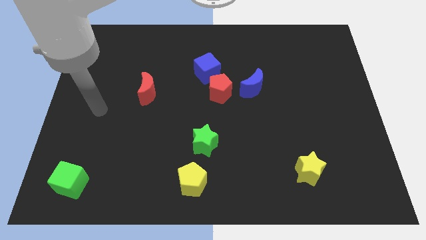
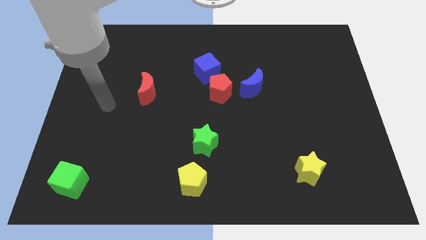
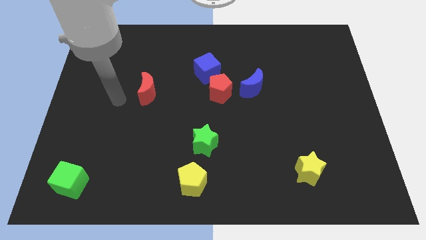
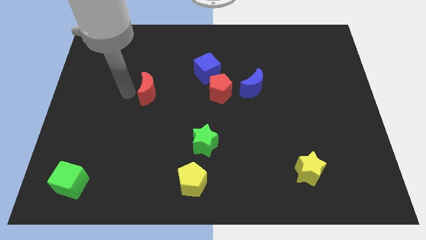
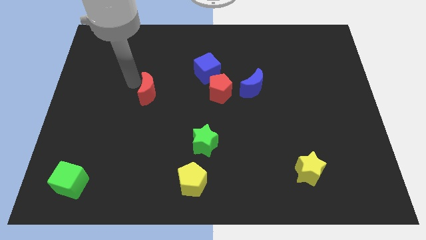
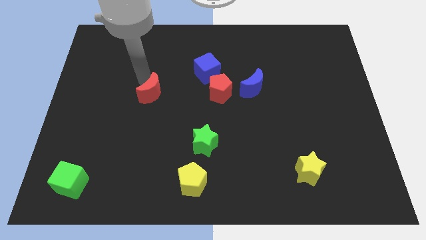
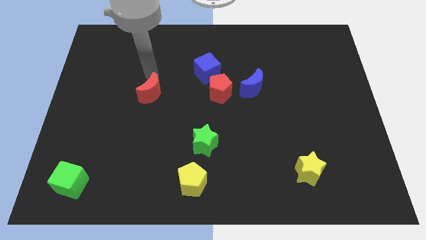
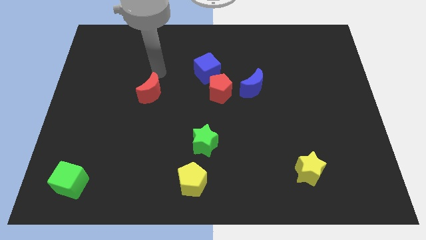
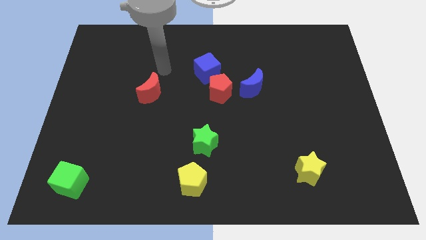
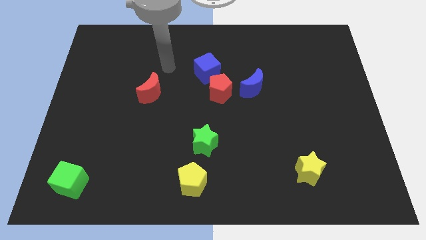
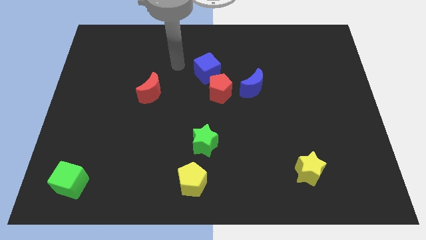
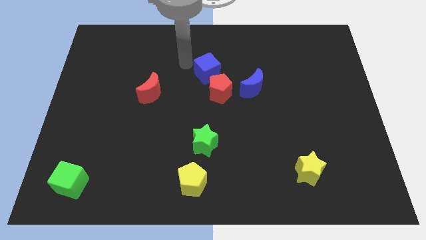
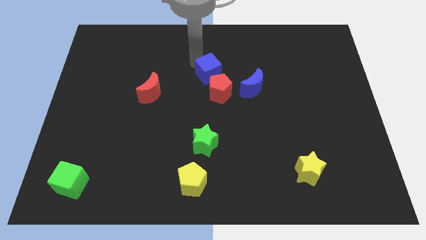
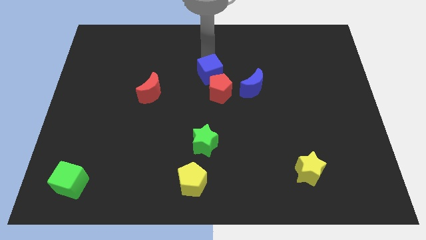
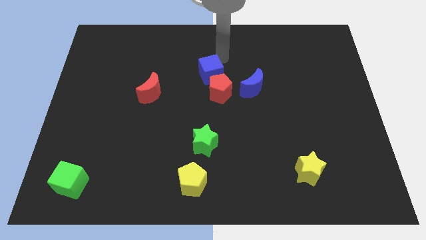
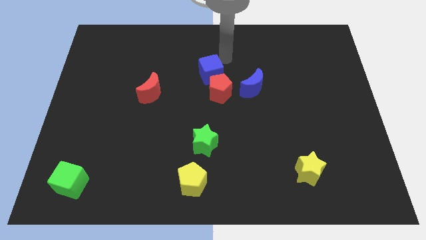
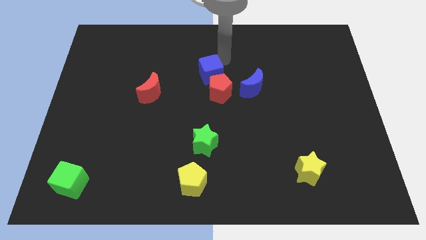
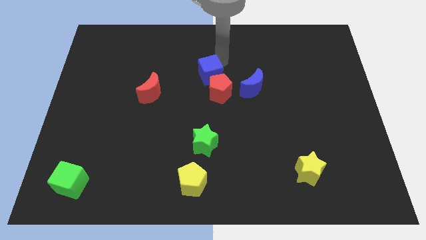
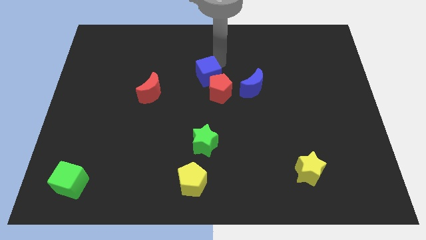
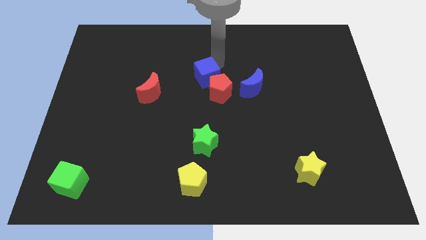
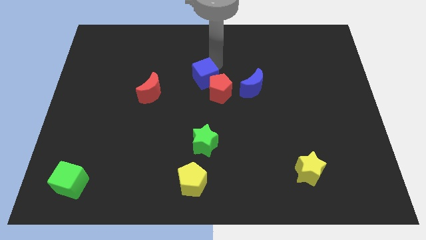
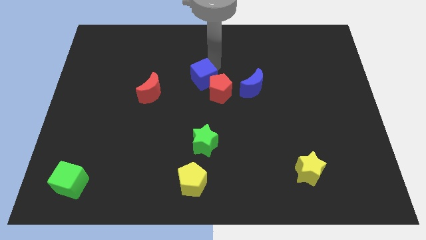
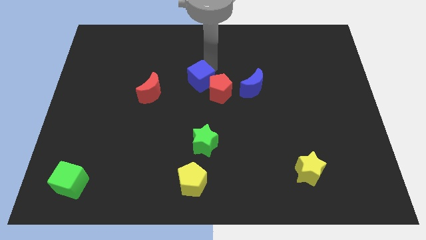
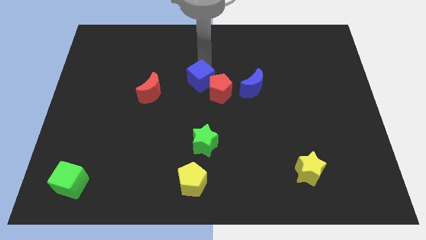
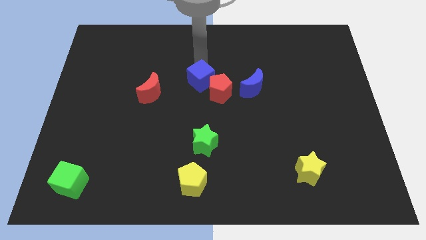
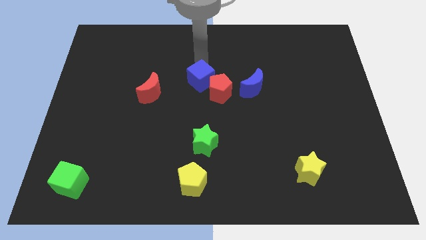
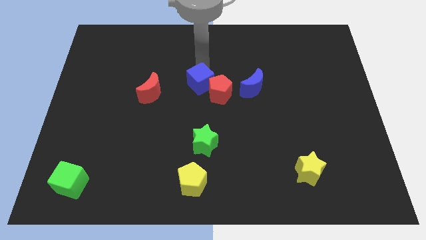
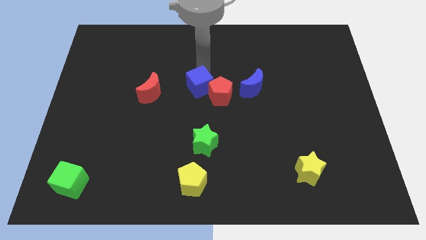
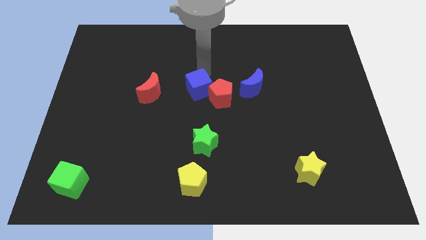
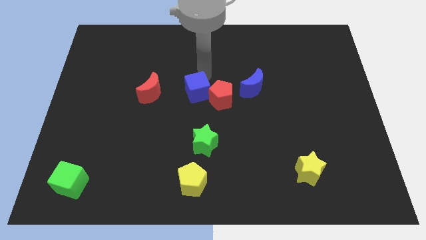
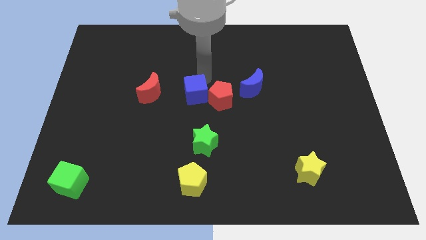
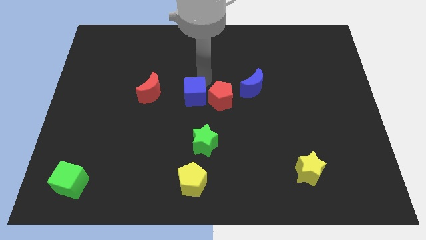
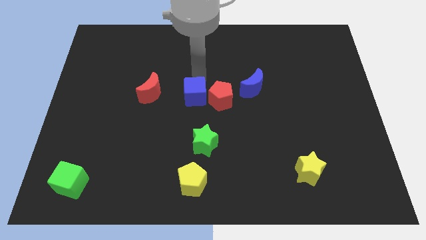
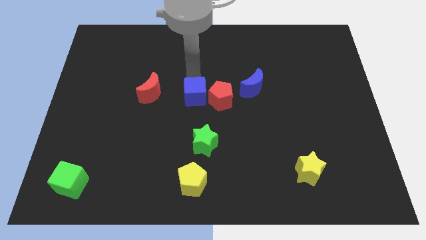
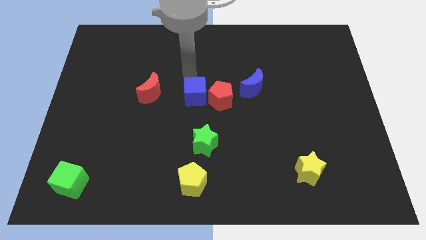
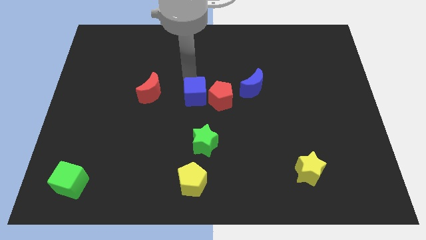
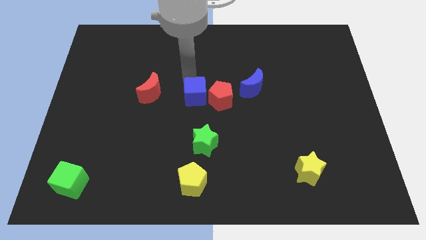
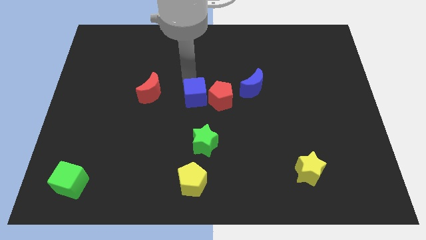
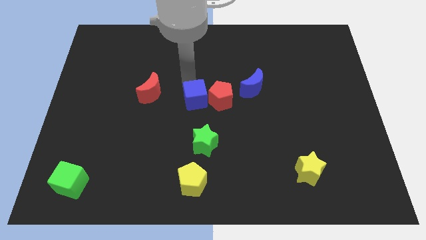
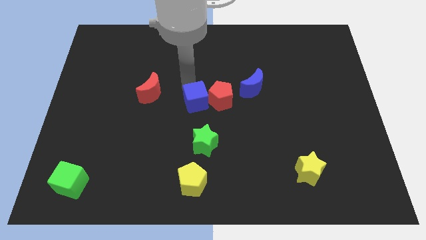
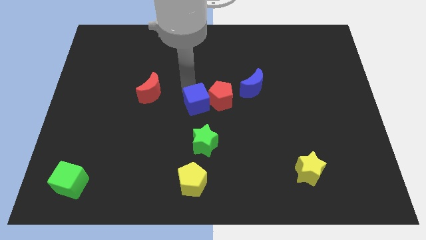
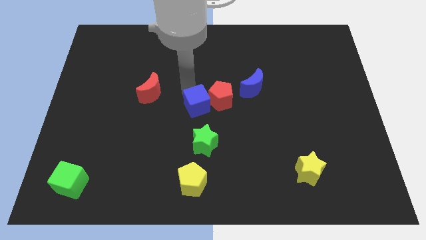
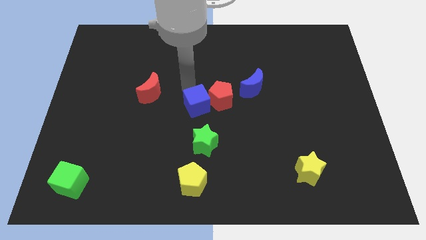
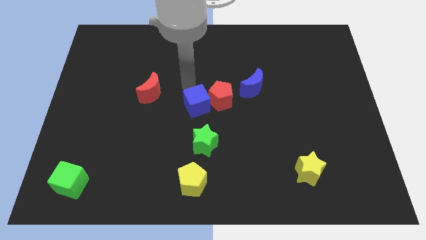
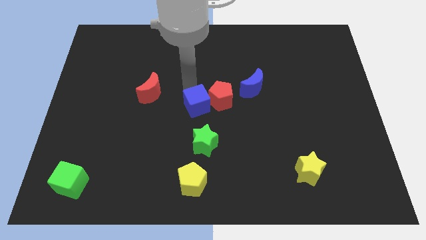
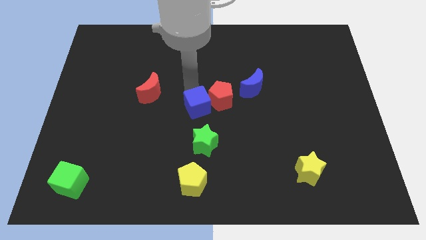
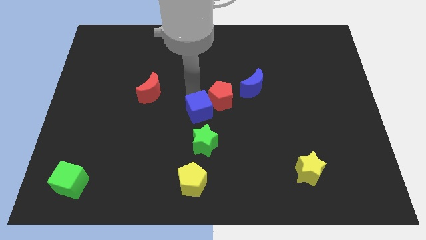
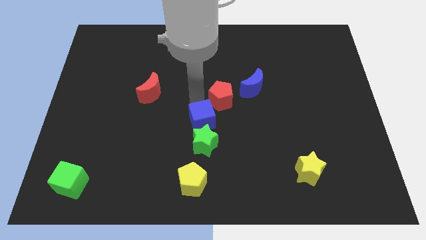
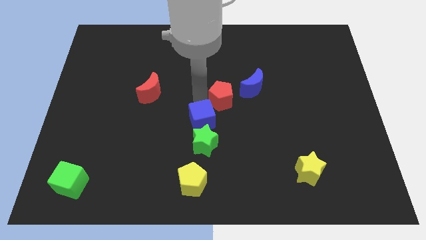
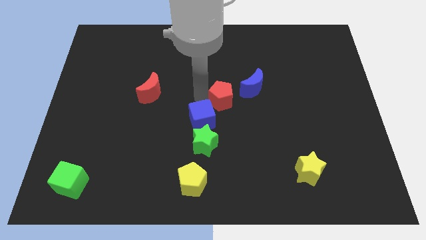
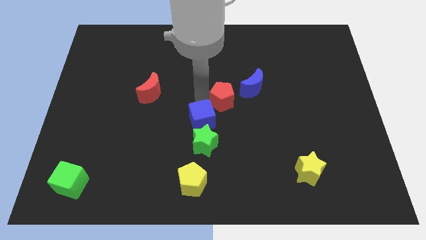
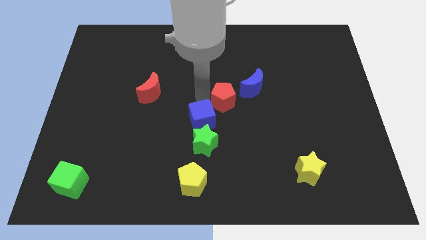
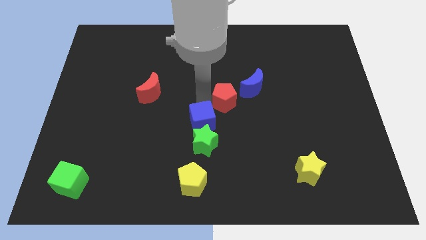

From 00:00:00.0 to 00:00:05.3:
push the blue cube close to the green star

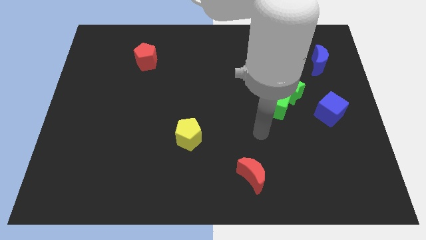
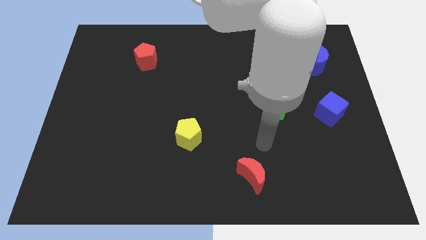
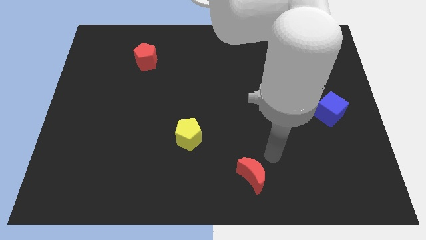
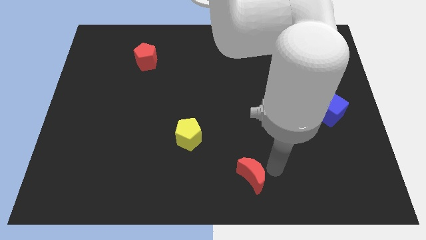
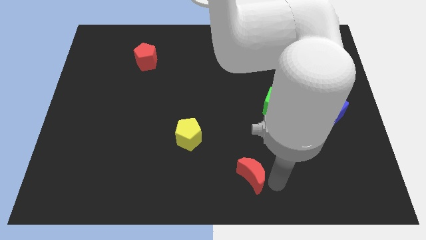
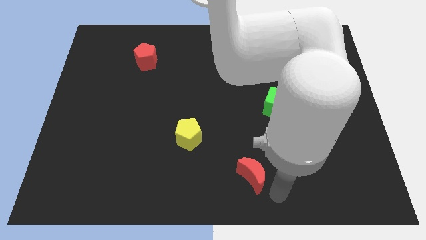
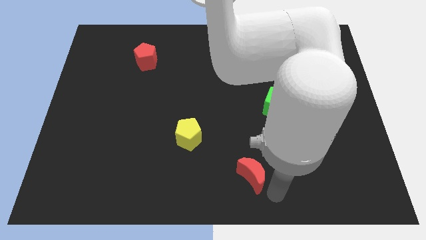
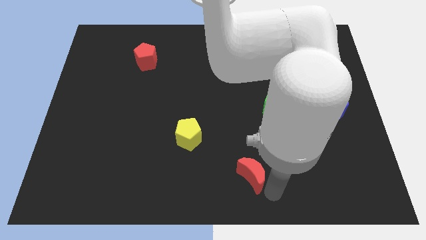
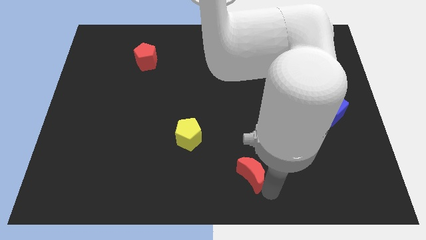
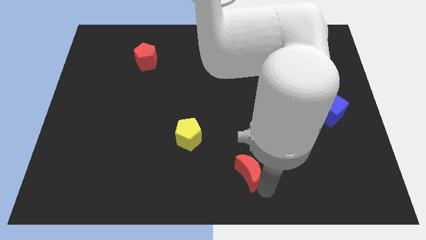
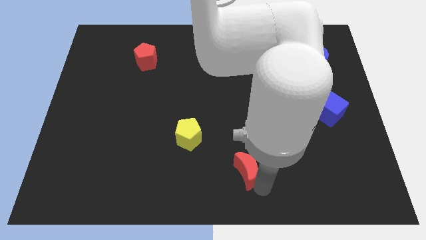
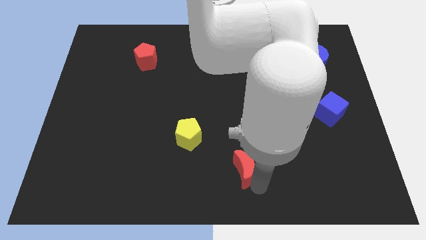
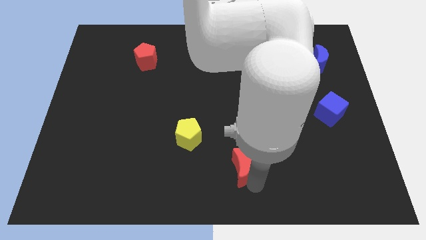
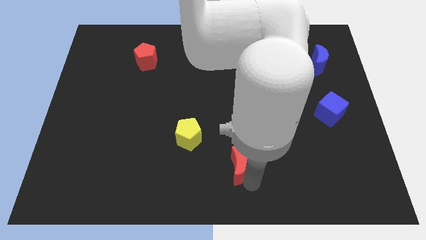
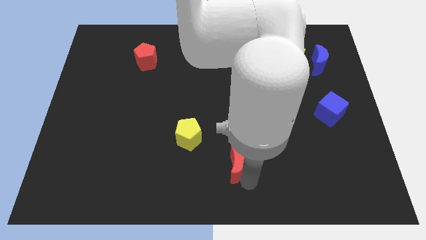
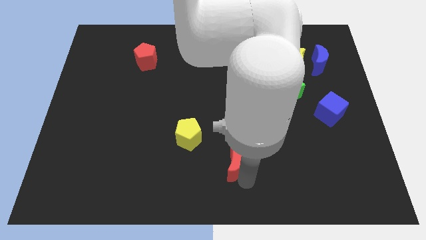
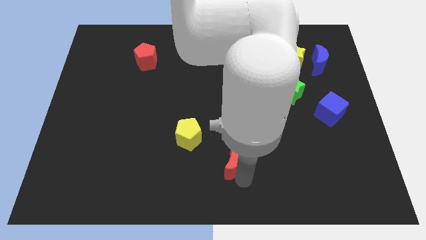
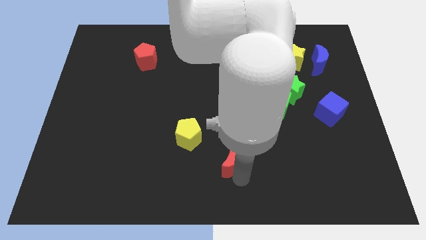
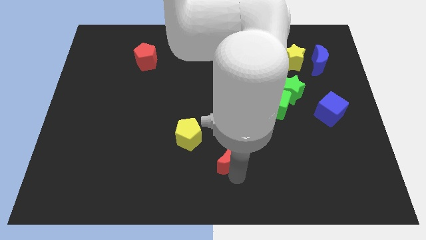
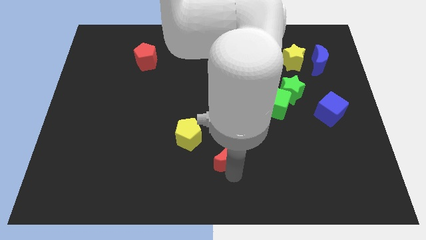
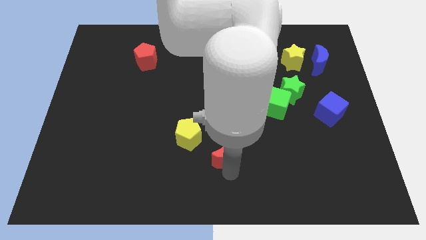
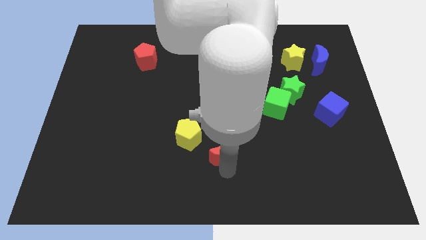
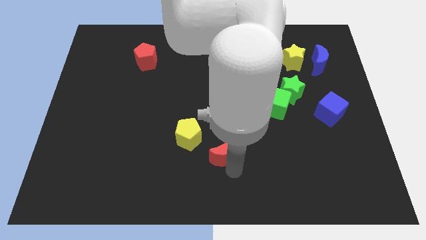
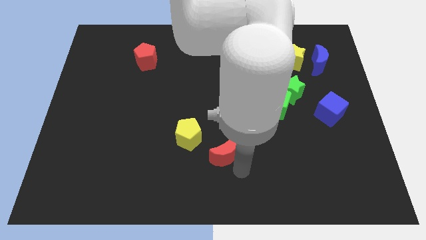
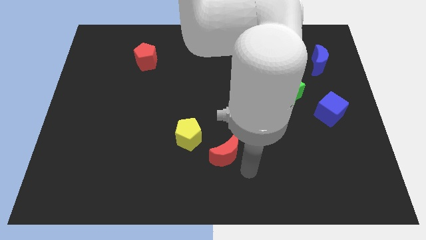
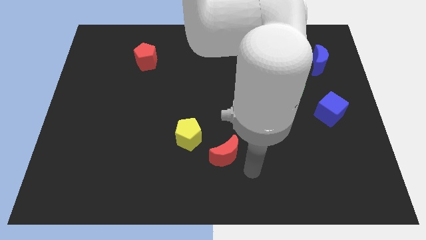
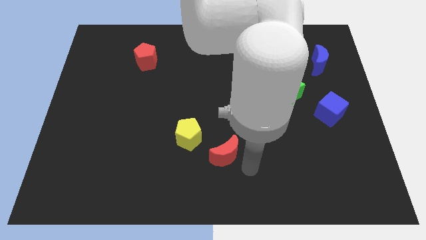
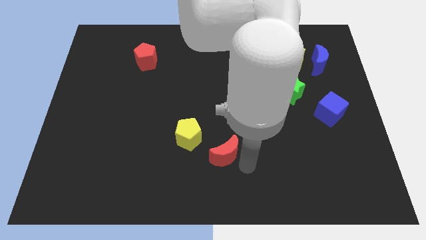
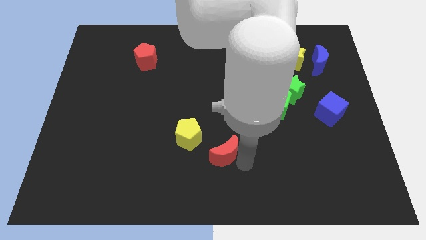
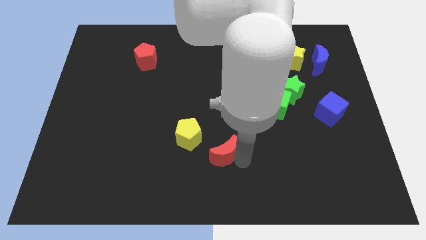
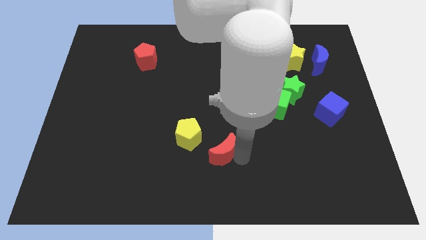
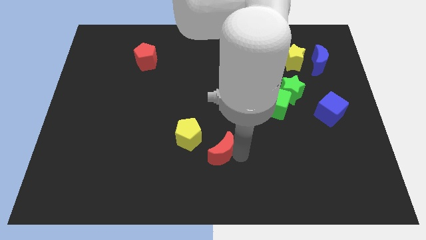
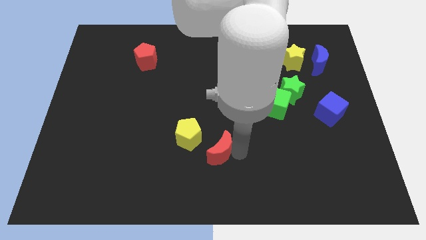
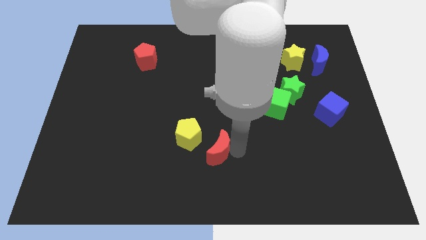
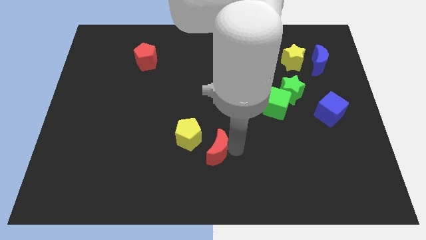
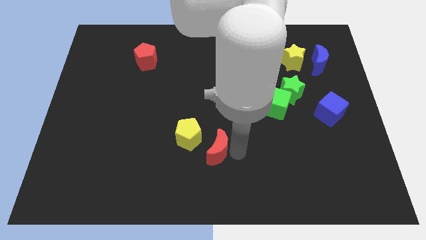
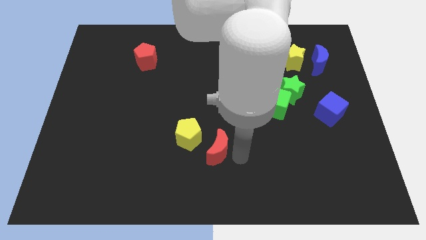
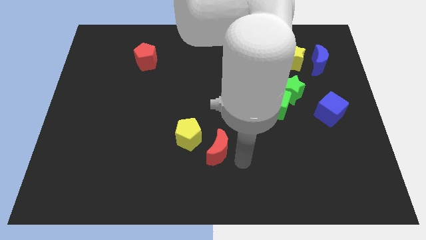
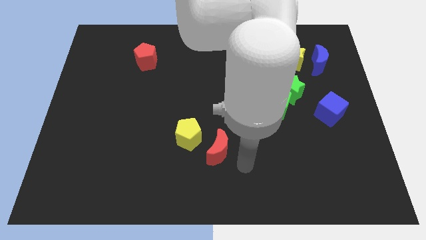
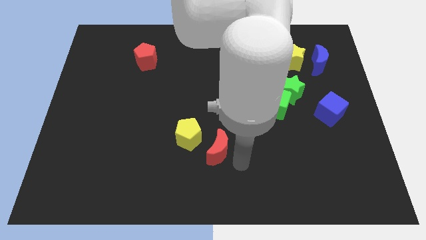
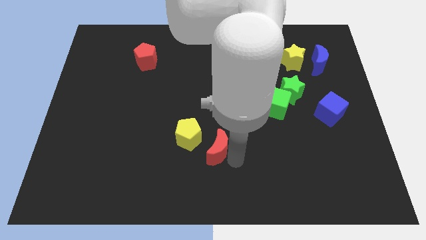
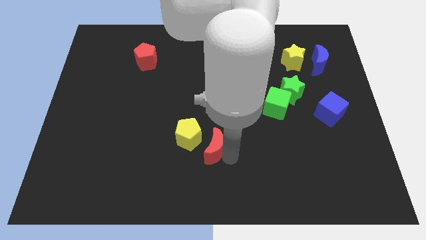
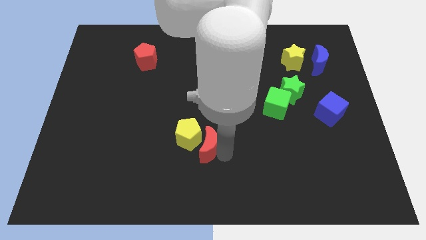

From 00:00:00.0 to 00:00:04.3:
put the red moon towards the yellow pentagon
